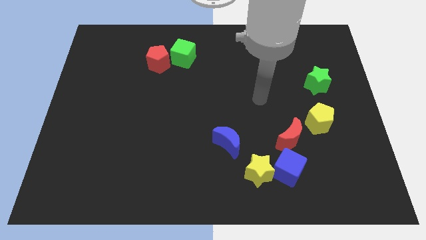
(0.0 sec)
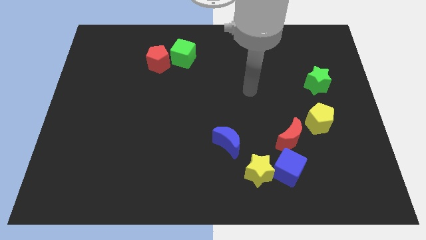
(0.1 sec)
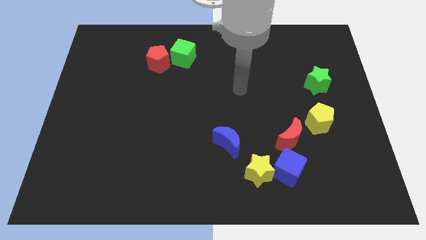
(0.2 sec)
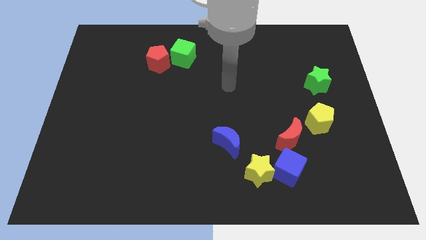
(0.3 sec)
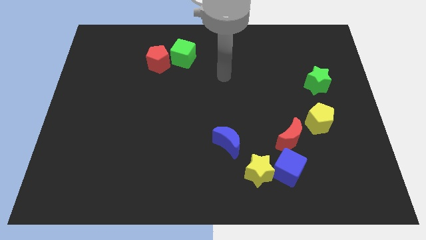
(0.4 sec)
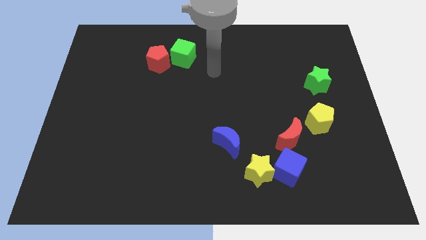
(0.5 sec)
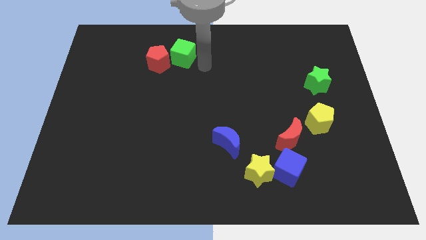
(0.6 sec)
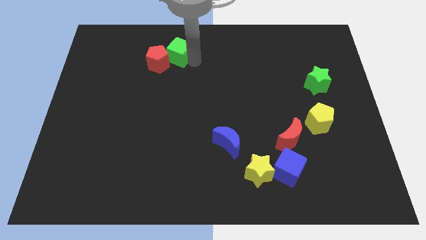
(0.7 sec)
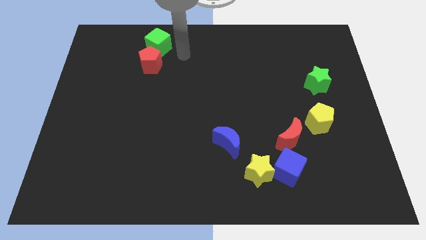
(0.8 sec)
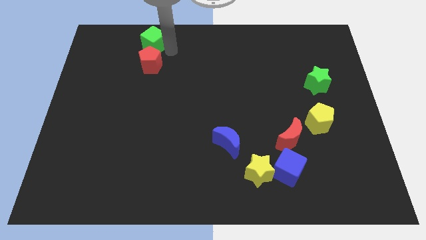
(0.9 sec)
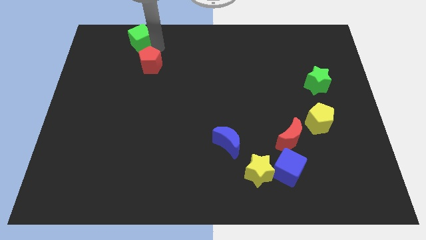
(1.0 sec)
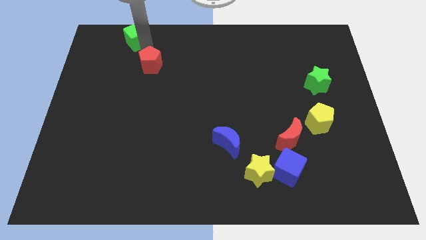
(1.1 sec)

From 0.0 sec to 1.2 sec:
separate the red pentagon from the green cube

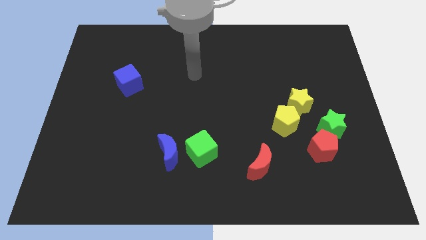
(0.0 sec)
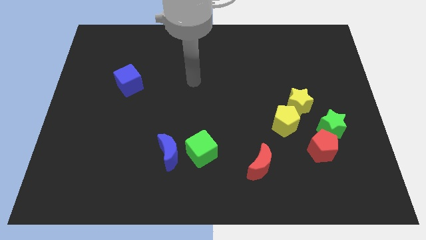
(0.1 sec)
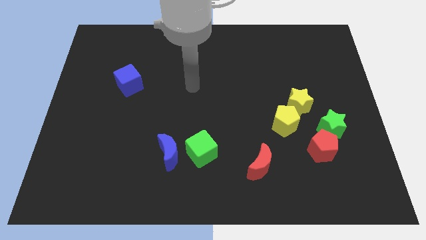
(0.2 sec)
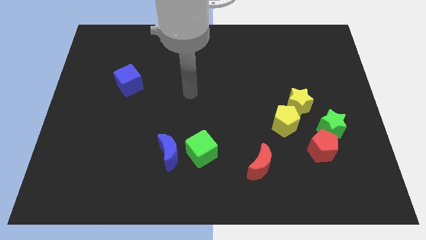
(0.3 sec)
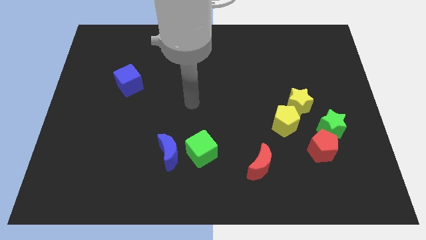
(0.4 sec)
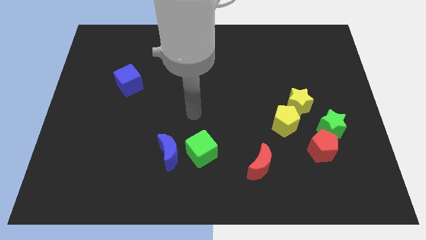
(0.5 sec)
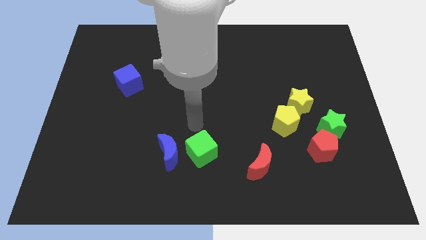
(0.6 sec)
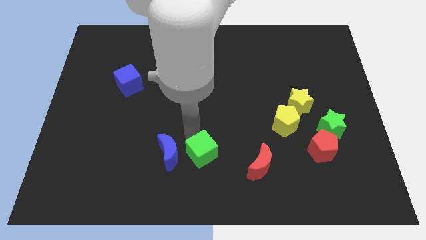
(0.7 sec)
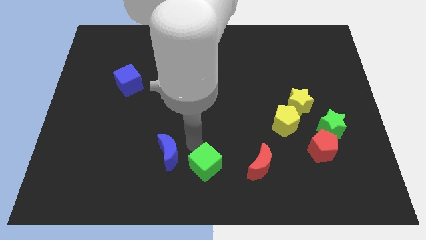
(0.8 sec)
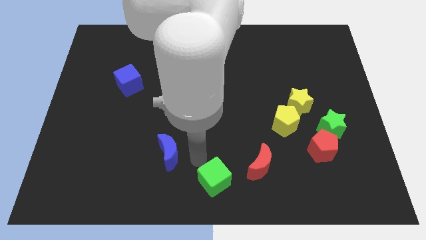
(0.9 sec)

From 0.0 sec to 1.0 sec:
move the blue moon away from the green cube

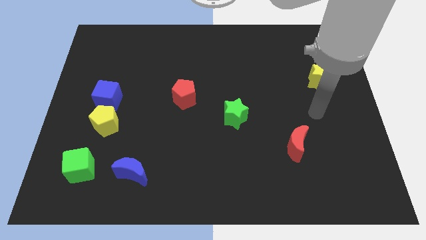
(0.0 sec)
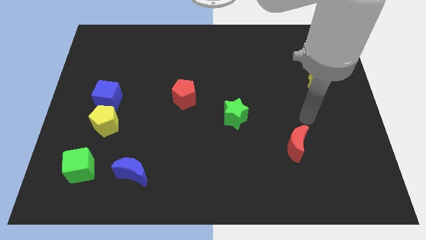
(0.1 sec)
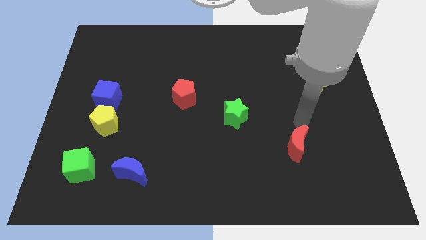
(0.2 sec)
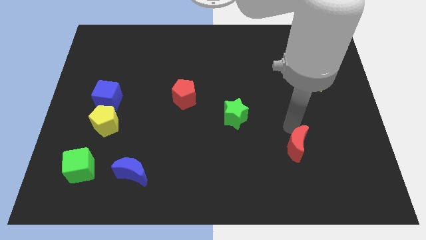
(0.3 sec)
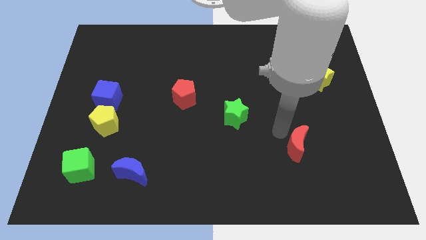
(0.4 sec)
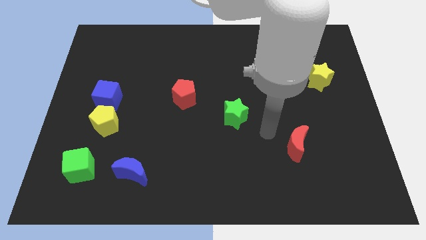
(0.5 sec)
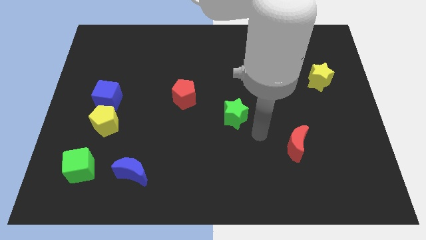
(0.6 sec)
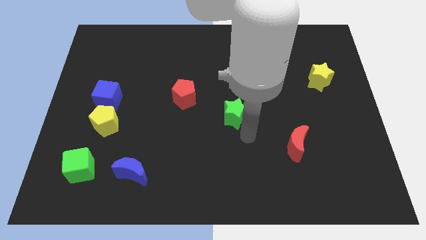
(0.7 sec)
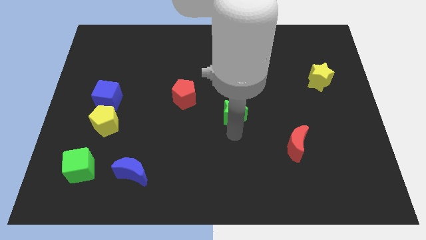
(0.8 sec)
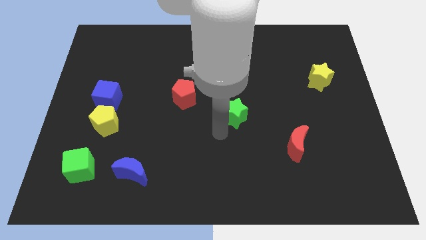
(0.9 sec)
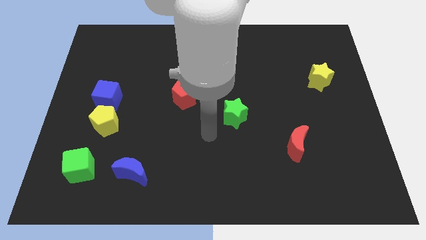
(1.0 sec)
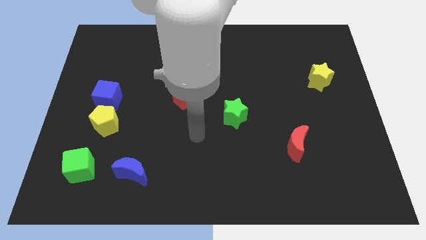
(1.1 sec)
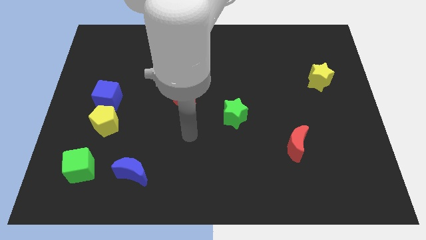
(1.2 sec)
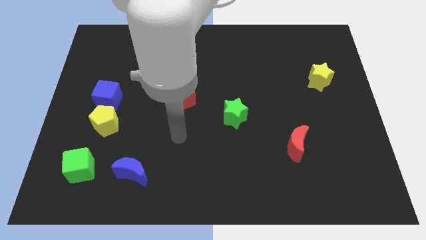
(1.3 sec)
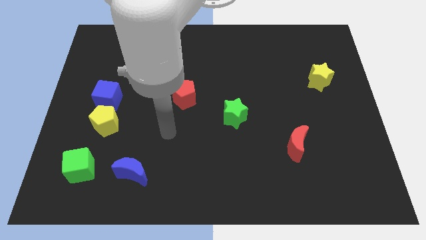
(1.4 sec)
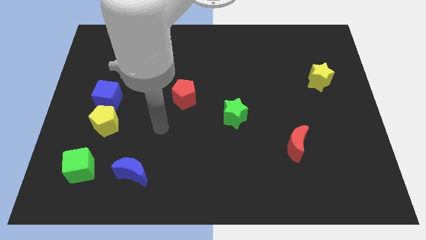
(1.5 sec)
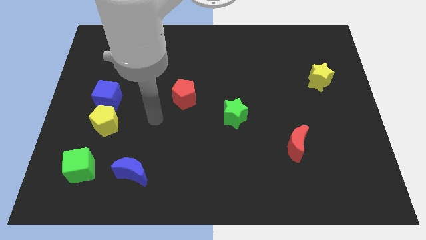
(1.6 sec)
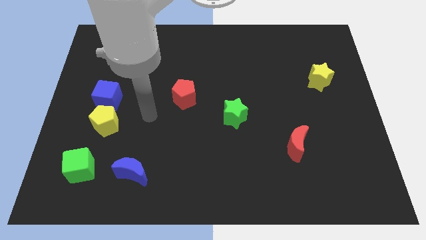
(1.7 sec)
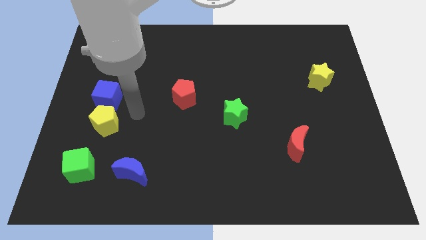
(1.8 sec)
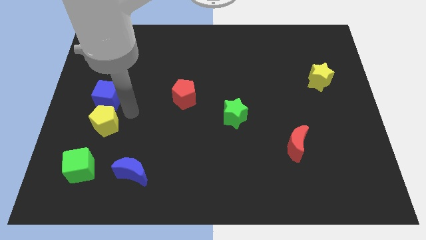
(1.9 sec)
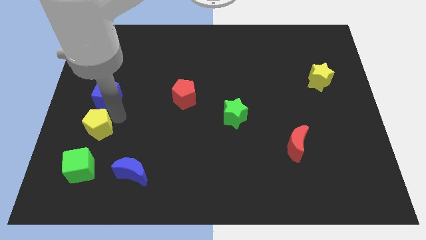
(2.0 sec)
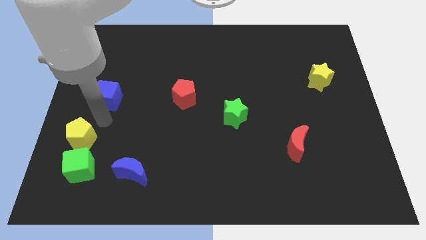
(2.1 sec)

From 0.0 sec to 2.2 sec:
move the blue cube away from the yellow pentagon

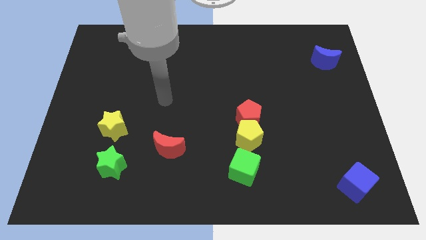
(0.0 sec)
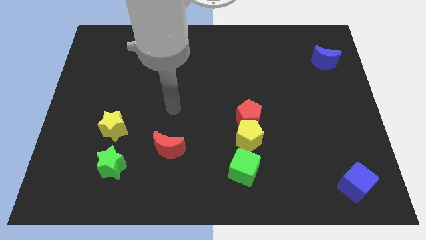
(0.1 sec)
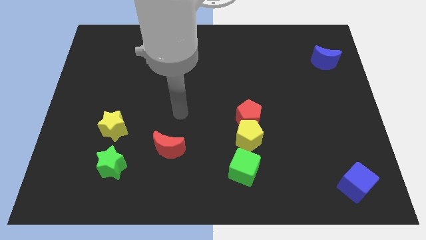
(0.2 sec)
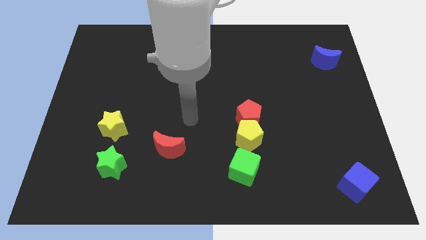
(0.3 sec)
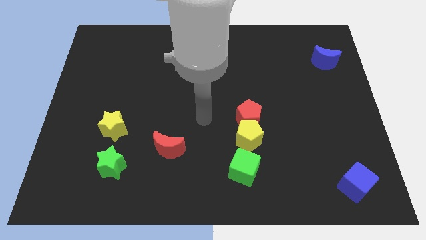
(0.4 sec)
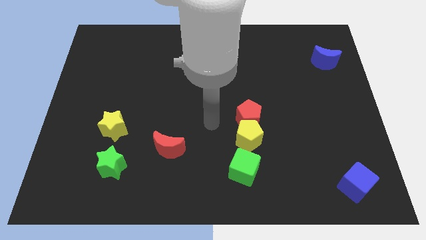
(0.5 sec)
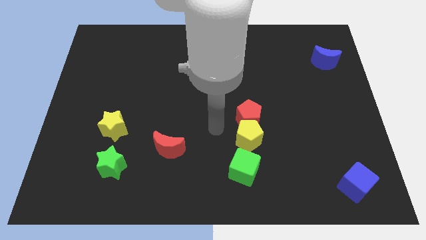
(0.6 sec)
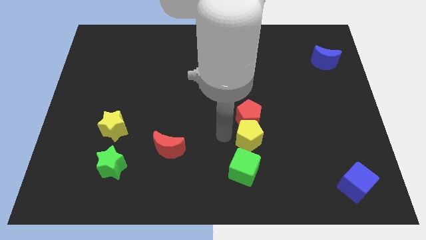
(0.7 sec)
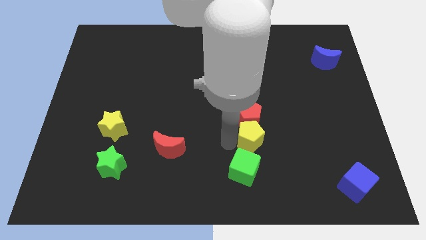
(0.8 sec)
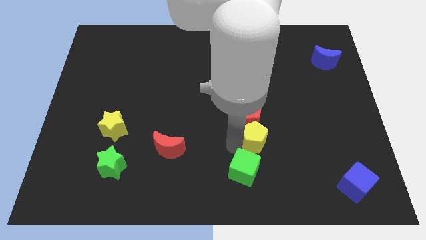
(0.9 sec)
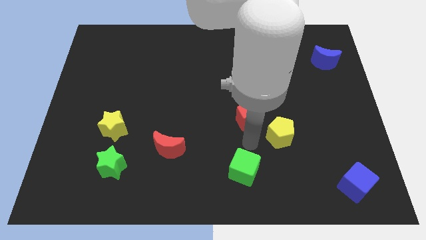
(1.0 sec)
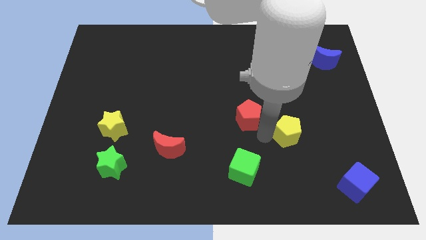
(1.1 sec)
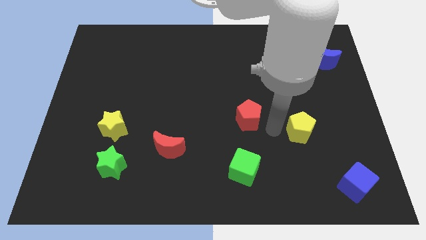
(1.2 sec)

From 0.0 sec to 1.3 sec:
move the red pentagon away from the yellow pentagon

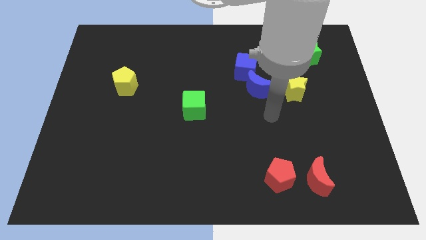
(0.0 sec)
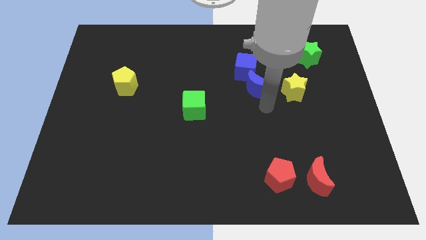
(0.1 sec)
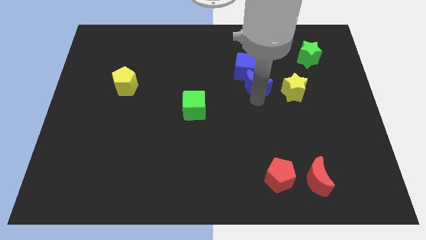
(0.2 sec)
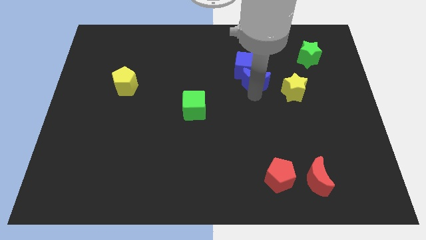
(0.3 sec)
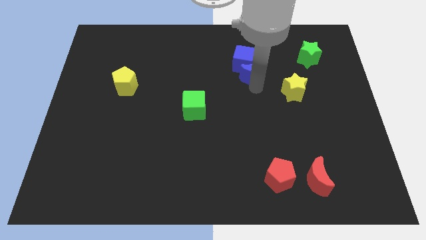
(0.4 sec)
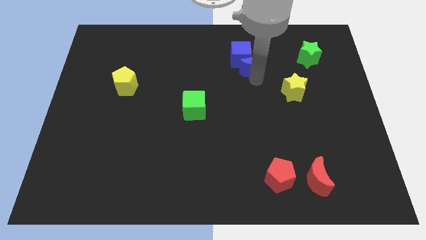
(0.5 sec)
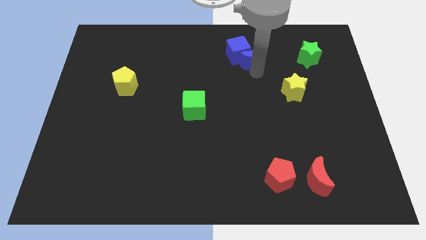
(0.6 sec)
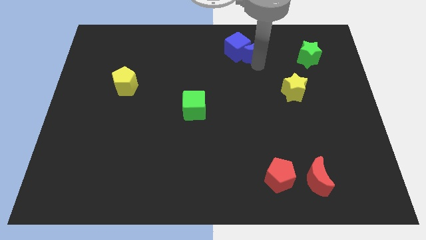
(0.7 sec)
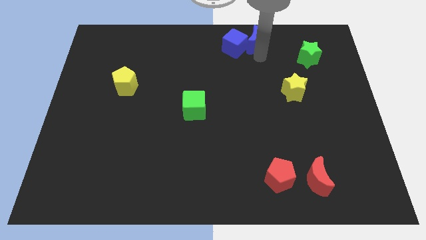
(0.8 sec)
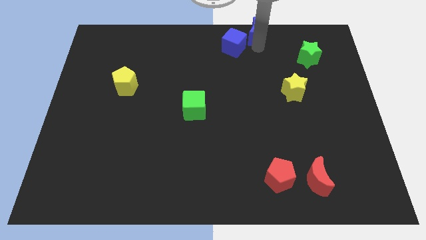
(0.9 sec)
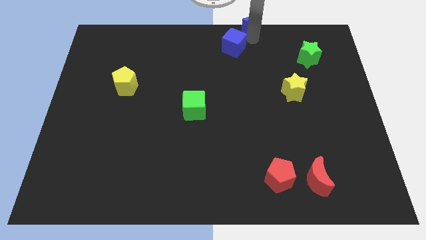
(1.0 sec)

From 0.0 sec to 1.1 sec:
separate the blue cube from the blue moon

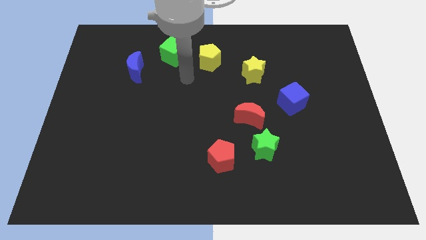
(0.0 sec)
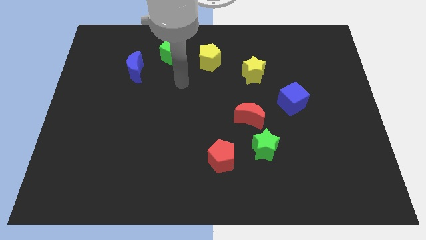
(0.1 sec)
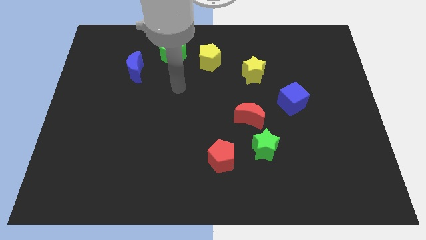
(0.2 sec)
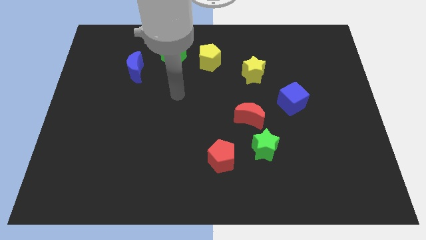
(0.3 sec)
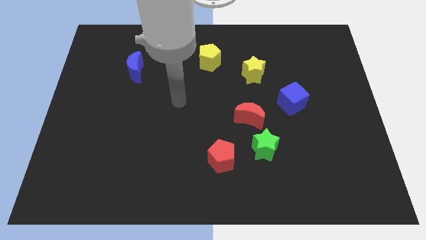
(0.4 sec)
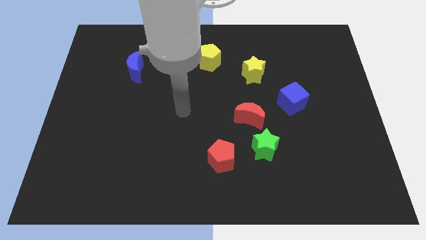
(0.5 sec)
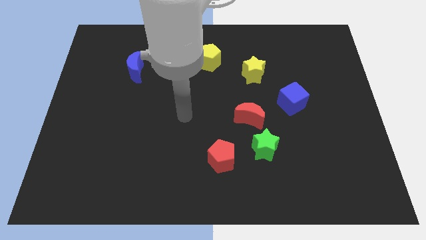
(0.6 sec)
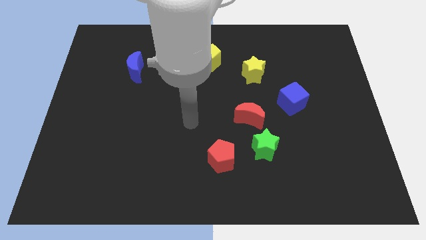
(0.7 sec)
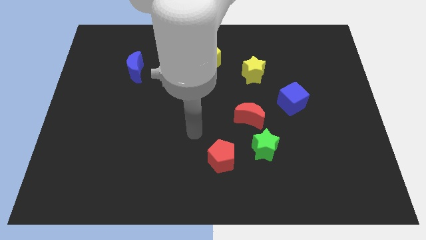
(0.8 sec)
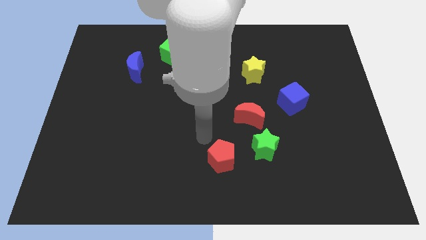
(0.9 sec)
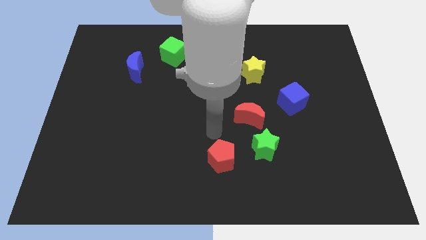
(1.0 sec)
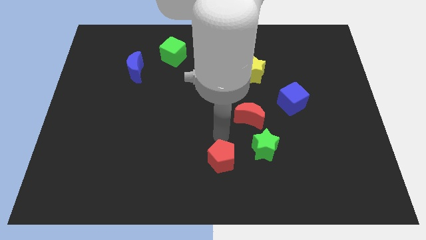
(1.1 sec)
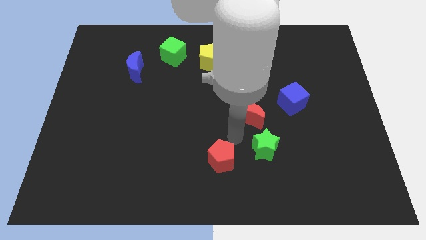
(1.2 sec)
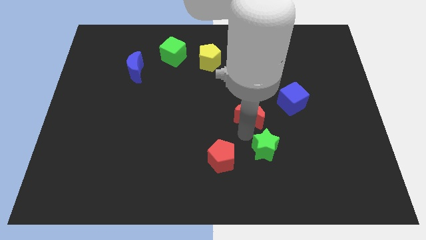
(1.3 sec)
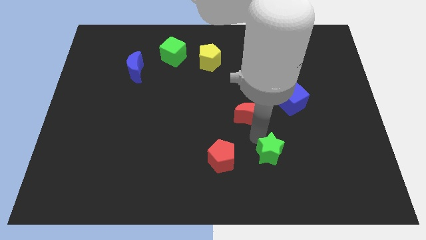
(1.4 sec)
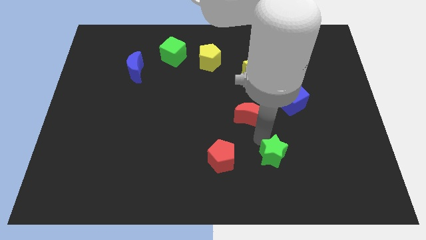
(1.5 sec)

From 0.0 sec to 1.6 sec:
pull the red moon apart from the green star

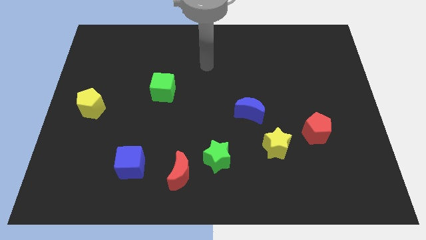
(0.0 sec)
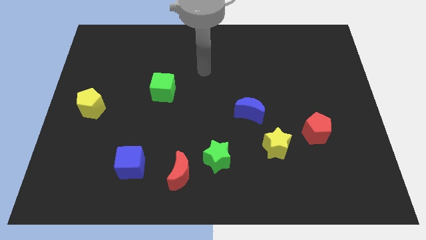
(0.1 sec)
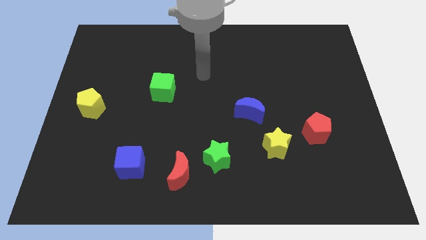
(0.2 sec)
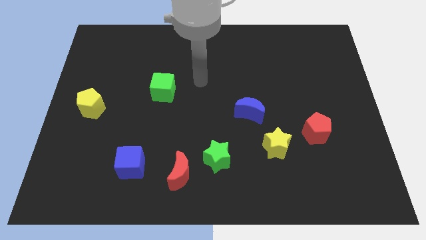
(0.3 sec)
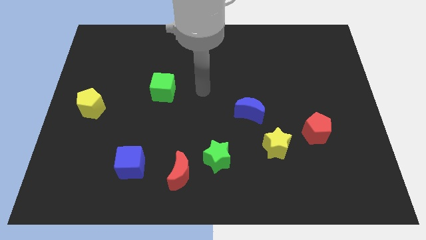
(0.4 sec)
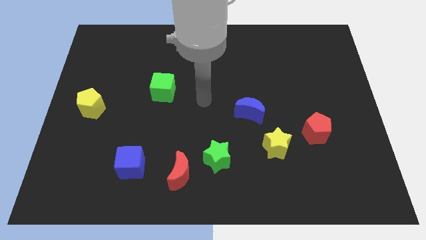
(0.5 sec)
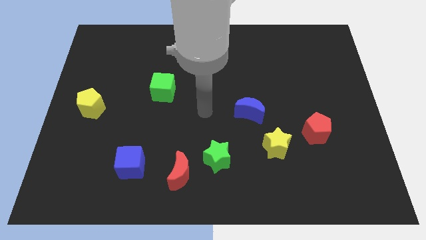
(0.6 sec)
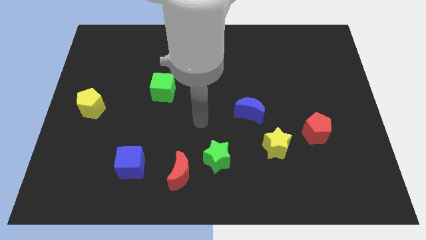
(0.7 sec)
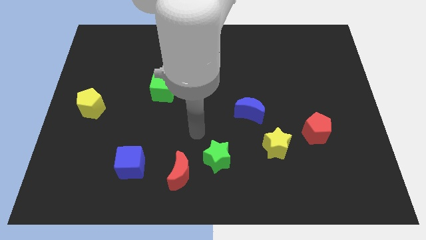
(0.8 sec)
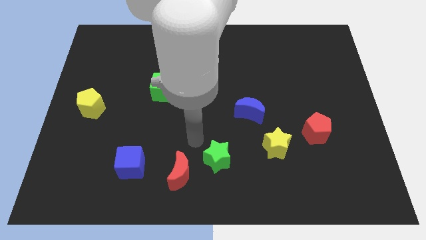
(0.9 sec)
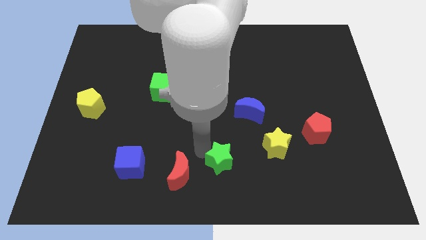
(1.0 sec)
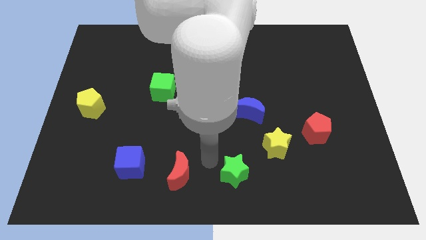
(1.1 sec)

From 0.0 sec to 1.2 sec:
separate the red moon from the green star
